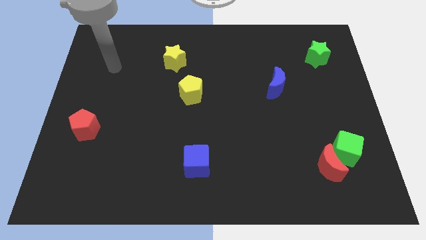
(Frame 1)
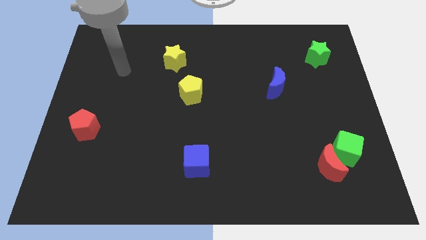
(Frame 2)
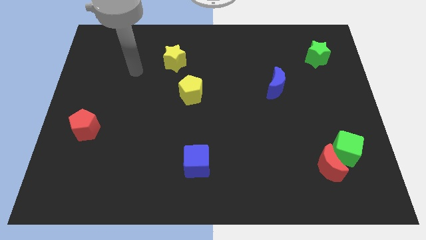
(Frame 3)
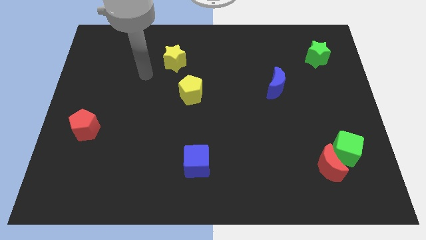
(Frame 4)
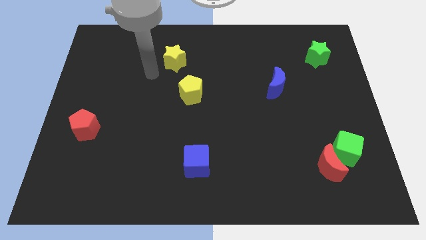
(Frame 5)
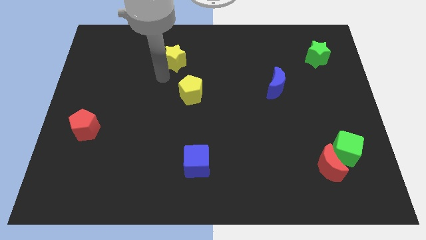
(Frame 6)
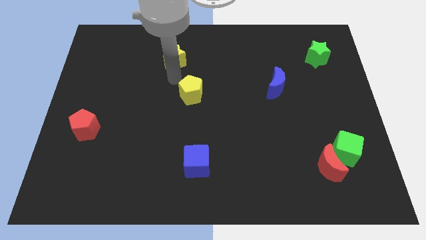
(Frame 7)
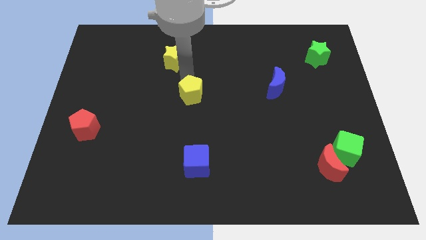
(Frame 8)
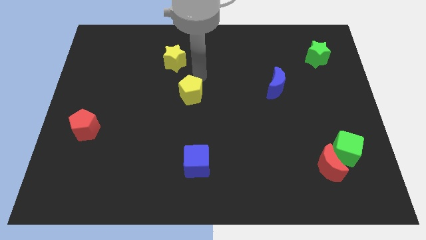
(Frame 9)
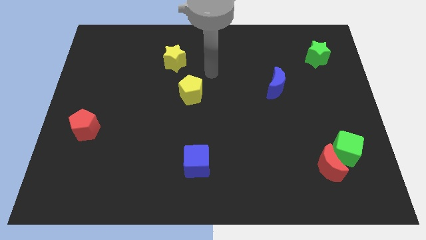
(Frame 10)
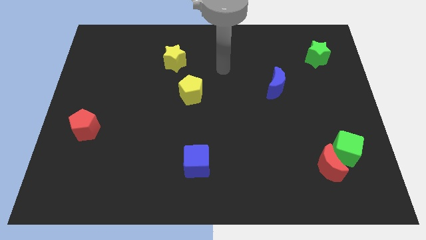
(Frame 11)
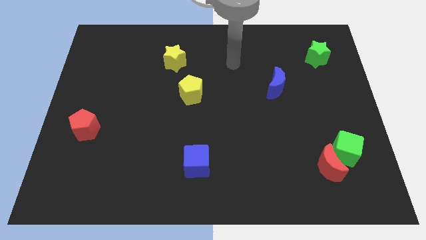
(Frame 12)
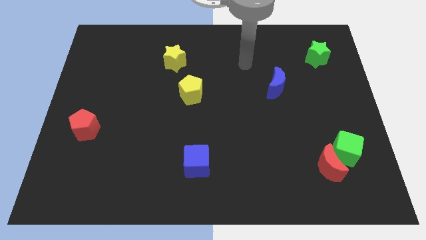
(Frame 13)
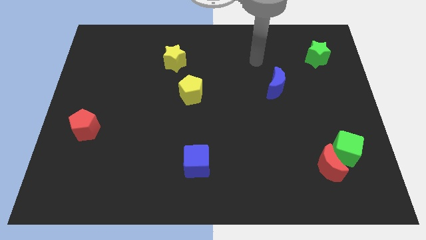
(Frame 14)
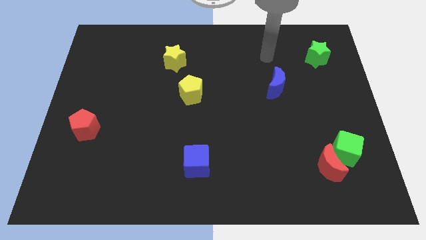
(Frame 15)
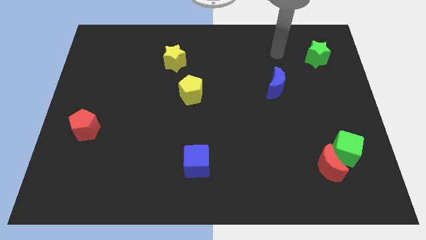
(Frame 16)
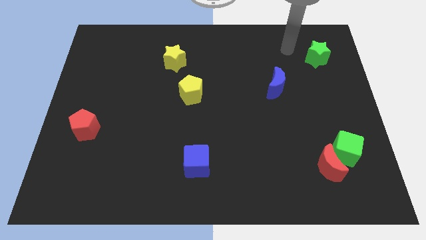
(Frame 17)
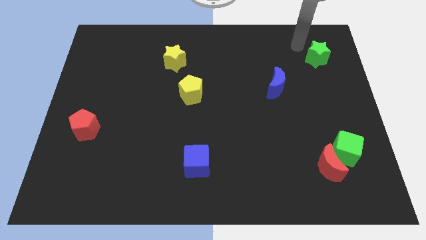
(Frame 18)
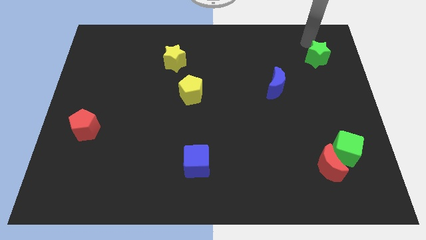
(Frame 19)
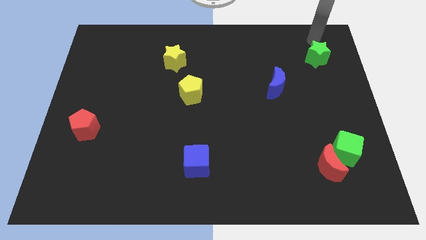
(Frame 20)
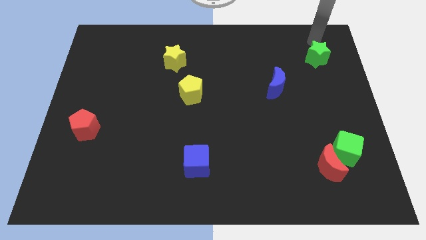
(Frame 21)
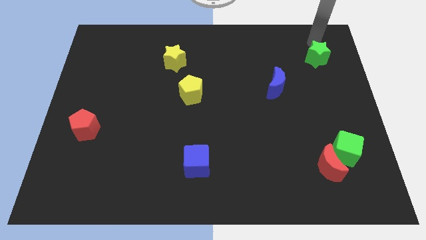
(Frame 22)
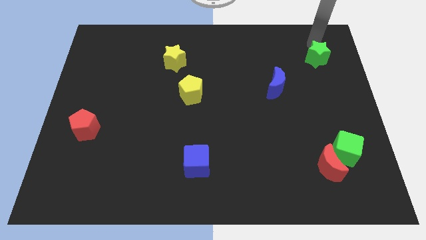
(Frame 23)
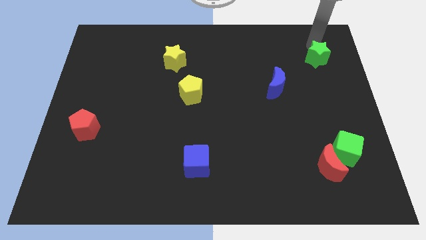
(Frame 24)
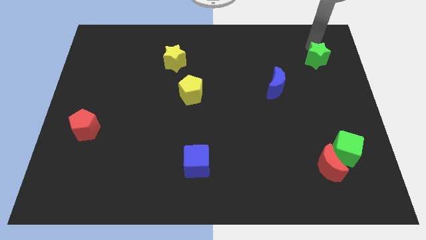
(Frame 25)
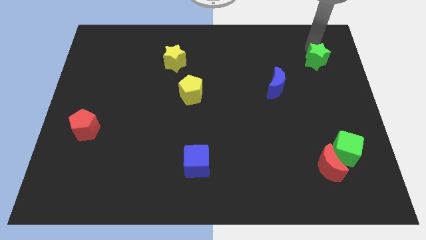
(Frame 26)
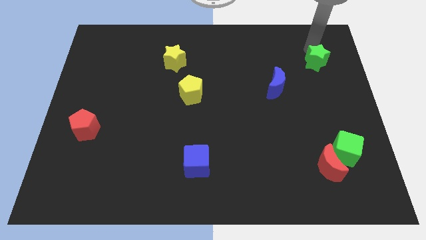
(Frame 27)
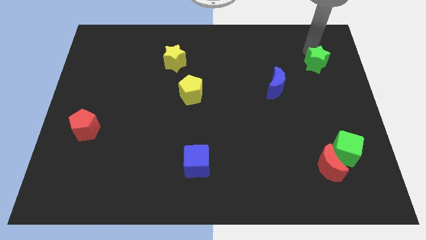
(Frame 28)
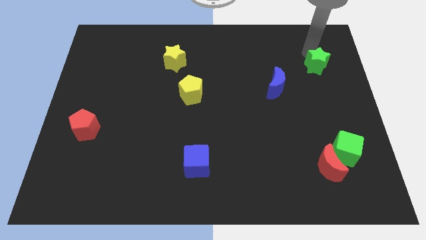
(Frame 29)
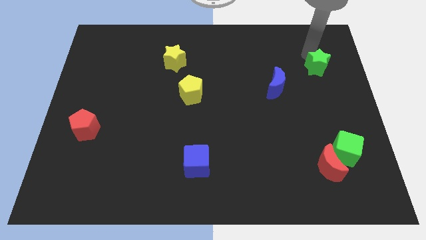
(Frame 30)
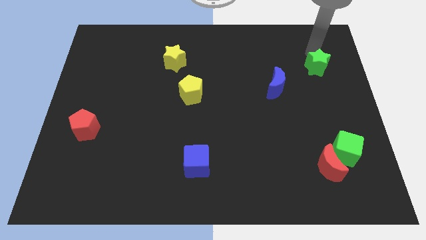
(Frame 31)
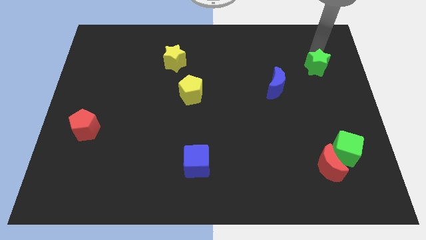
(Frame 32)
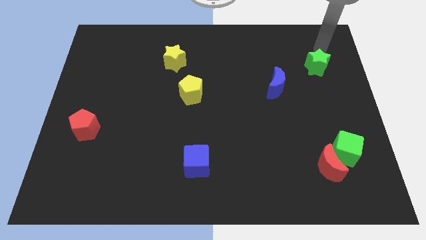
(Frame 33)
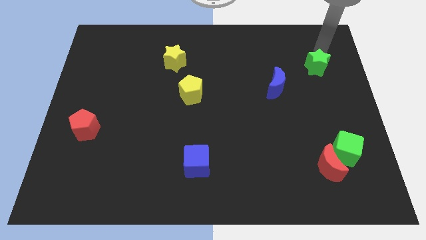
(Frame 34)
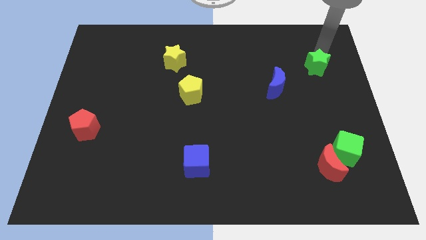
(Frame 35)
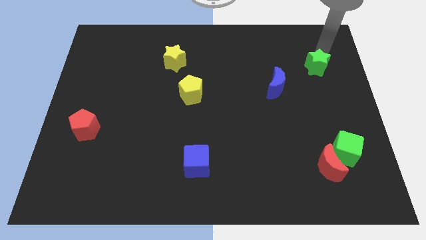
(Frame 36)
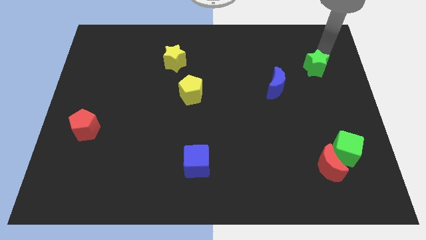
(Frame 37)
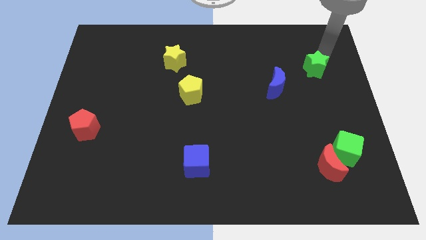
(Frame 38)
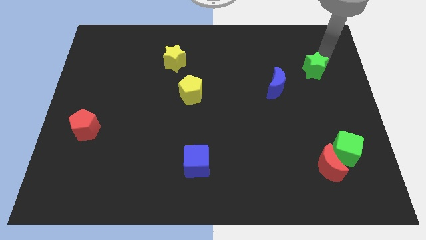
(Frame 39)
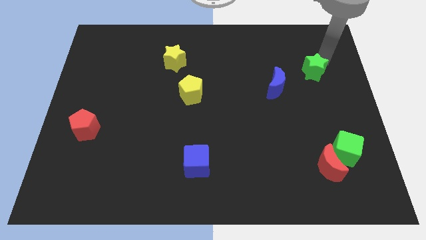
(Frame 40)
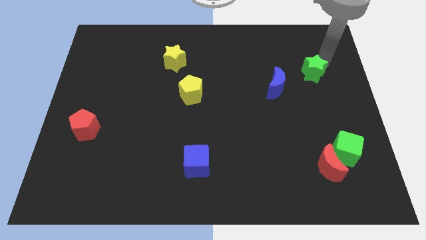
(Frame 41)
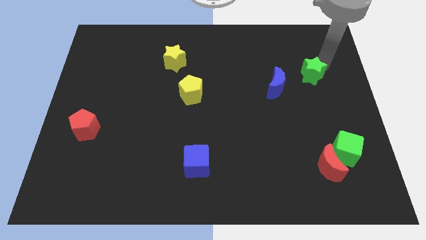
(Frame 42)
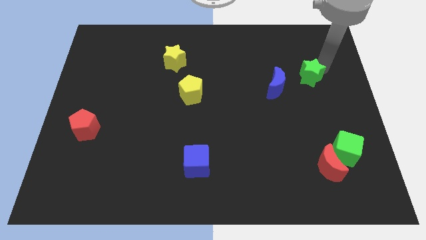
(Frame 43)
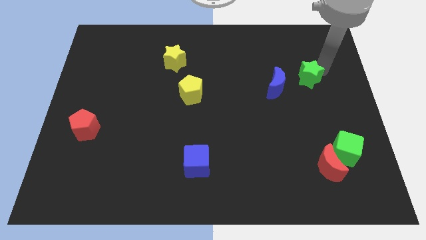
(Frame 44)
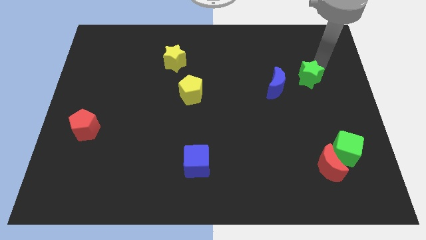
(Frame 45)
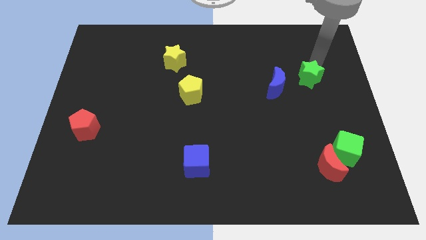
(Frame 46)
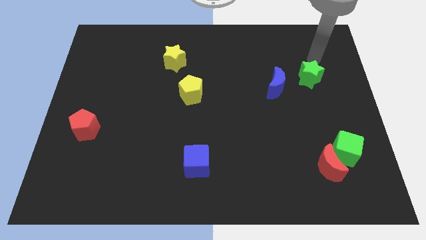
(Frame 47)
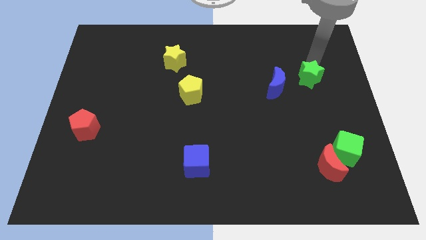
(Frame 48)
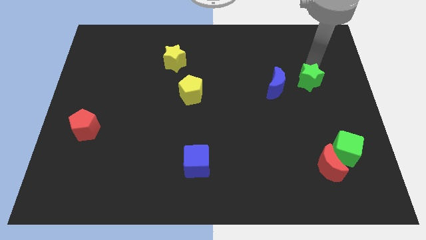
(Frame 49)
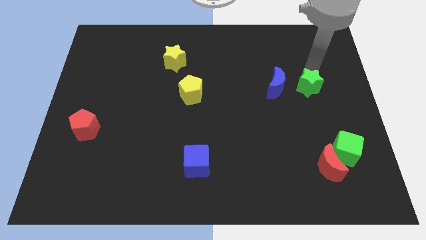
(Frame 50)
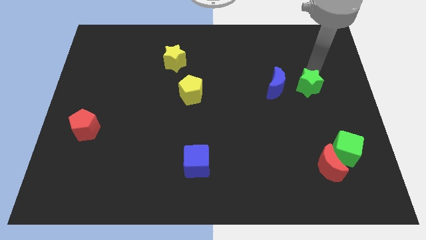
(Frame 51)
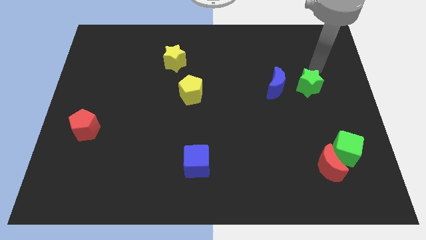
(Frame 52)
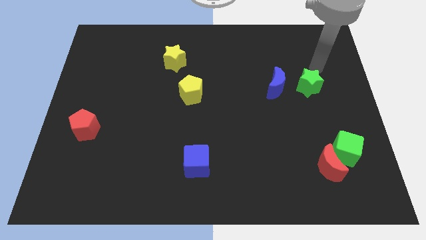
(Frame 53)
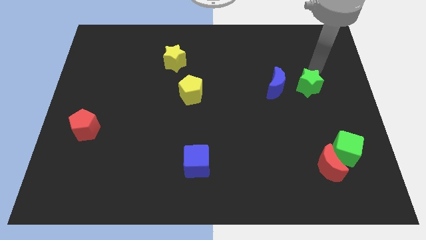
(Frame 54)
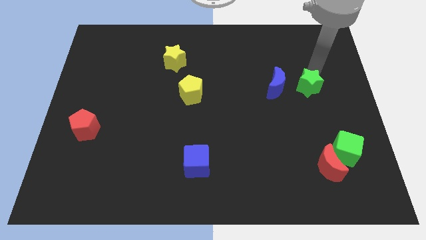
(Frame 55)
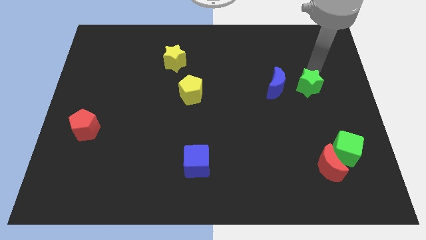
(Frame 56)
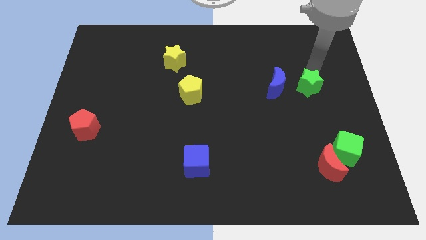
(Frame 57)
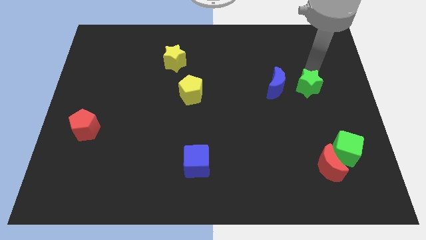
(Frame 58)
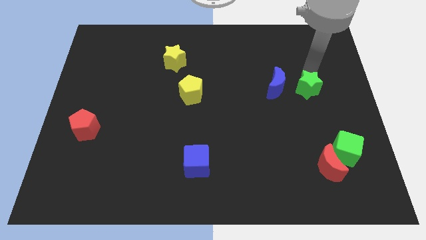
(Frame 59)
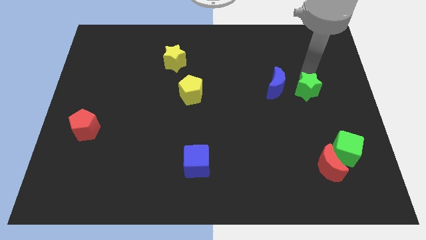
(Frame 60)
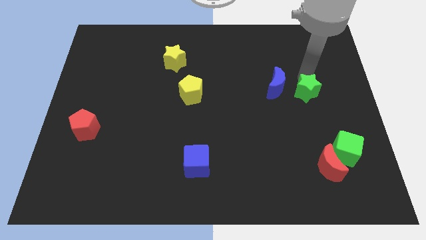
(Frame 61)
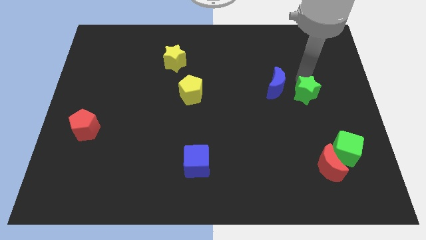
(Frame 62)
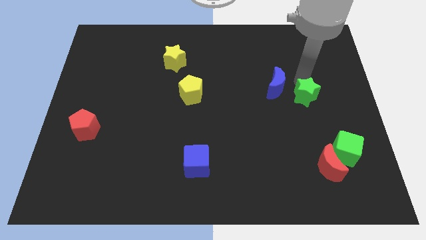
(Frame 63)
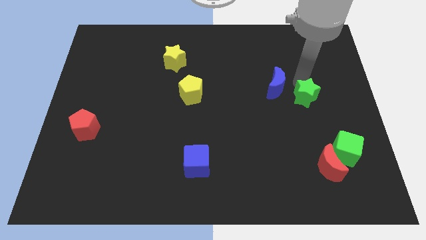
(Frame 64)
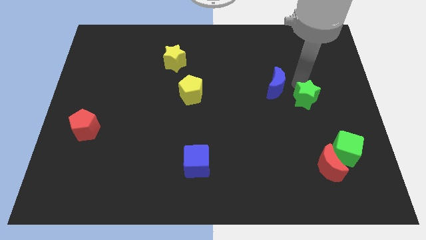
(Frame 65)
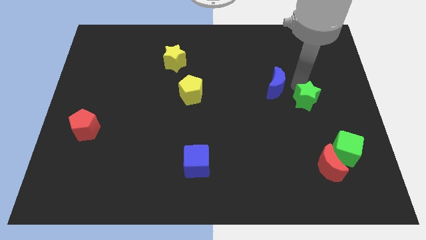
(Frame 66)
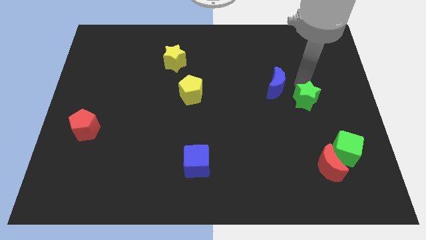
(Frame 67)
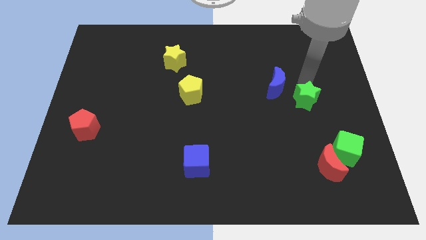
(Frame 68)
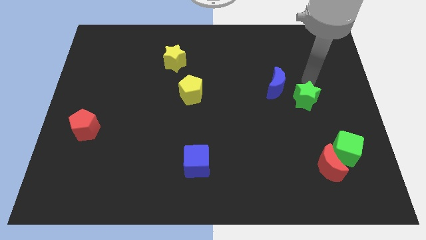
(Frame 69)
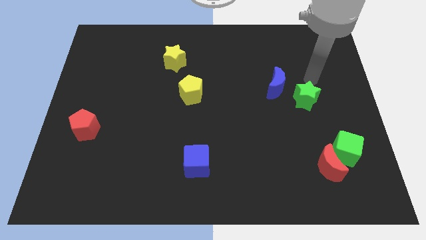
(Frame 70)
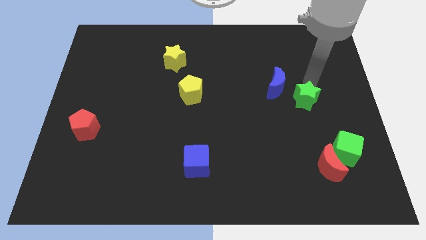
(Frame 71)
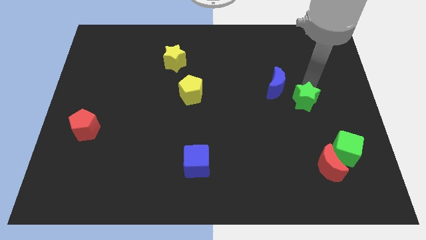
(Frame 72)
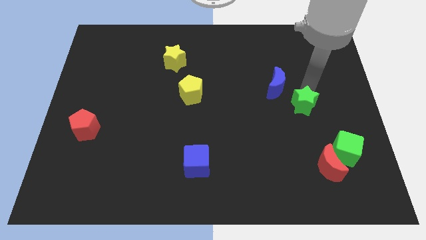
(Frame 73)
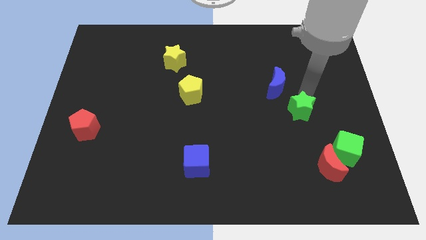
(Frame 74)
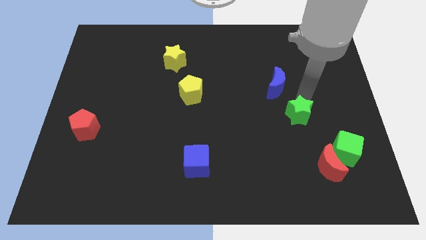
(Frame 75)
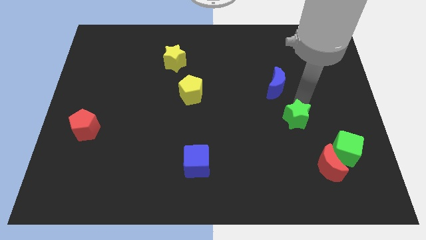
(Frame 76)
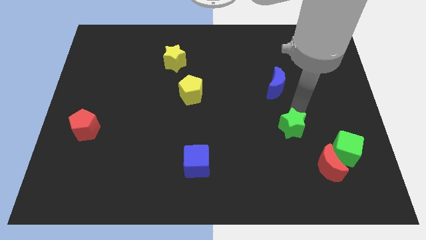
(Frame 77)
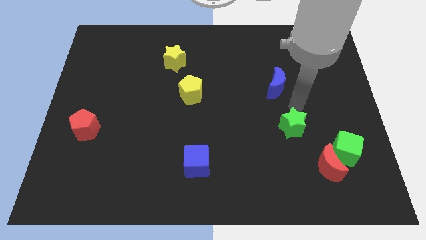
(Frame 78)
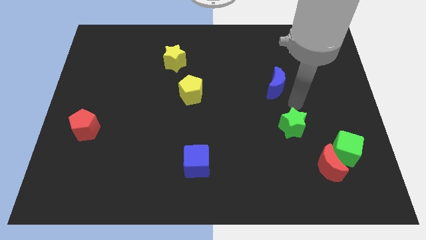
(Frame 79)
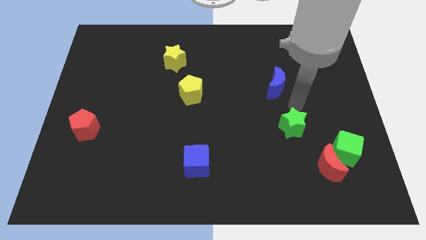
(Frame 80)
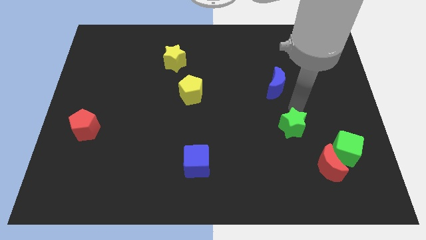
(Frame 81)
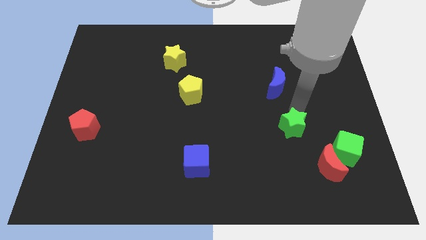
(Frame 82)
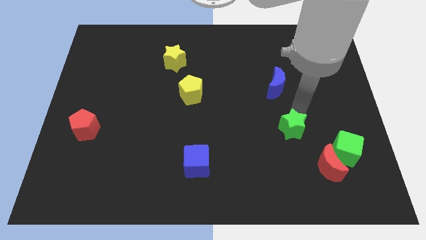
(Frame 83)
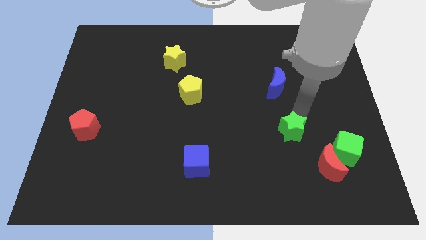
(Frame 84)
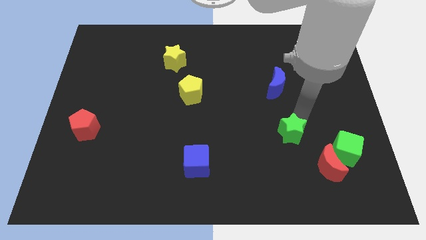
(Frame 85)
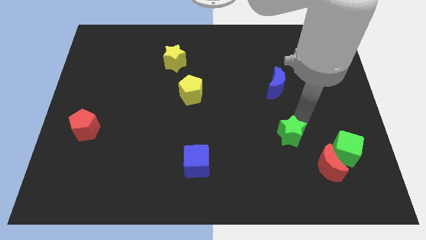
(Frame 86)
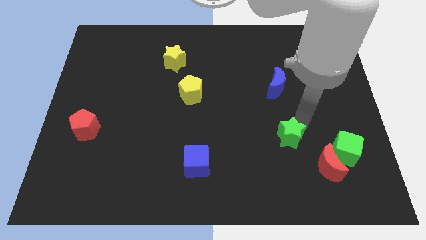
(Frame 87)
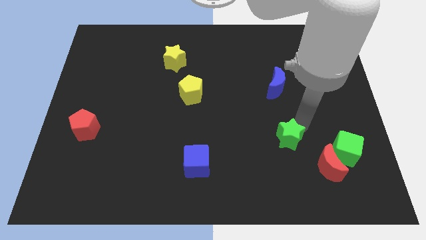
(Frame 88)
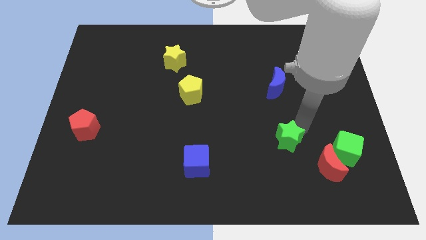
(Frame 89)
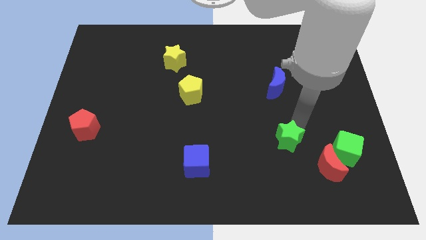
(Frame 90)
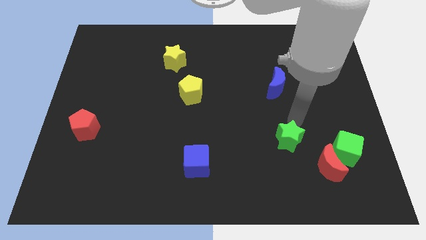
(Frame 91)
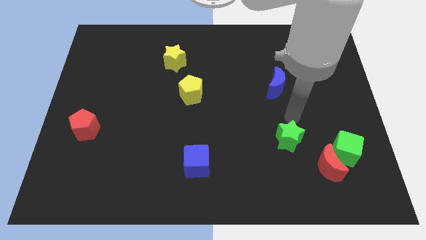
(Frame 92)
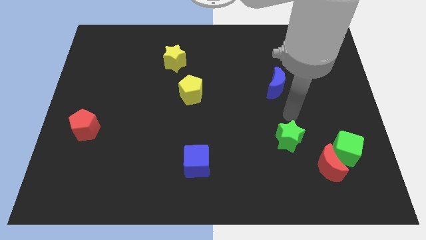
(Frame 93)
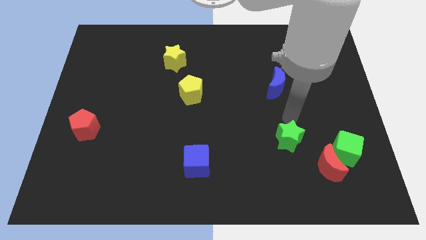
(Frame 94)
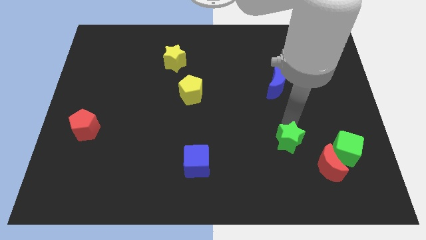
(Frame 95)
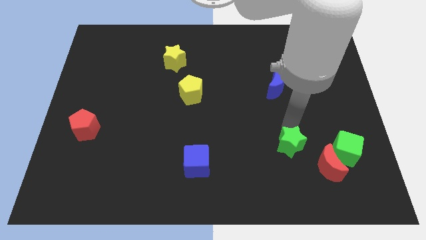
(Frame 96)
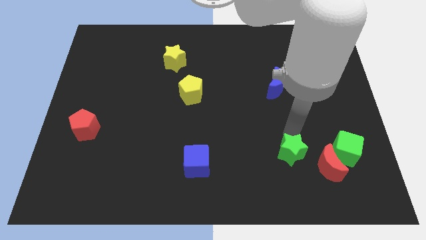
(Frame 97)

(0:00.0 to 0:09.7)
move the green star left of the red moon
